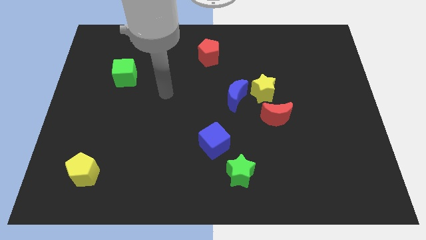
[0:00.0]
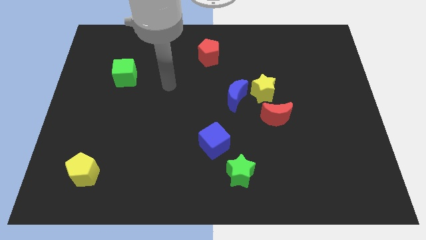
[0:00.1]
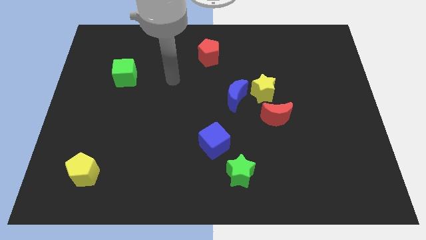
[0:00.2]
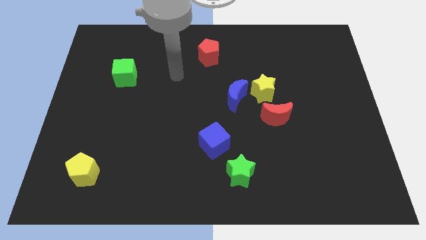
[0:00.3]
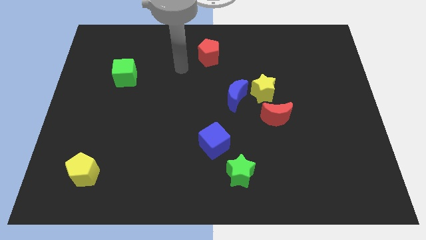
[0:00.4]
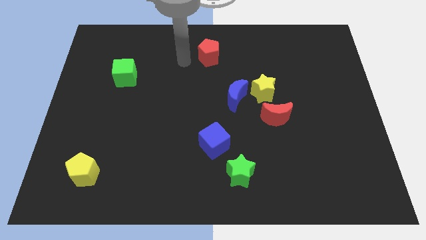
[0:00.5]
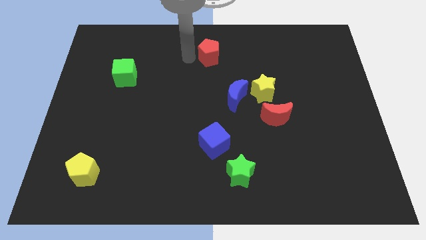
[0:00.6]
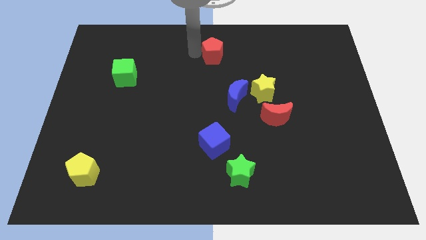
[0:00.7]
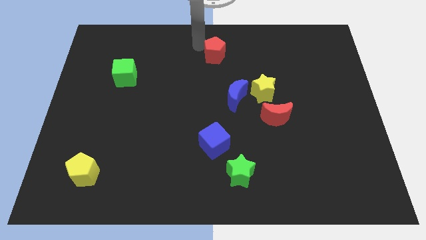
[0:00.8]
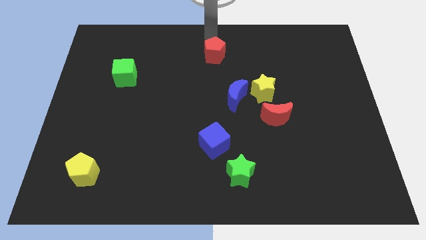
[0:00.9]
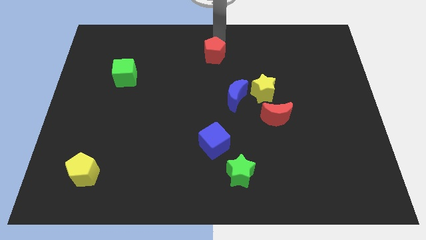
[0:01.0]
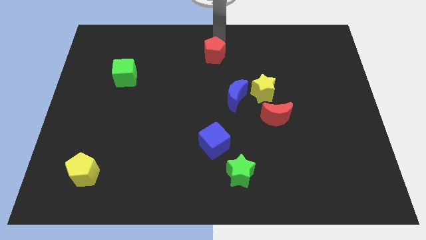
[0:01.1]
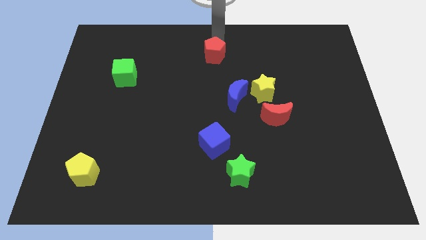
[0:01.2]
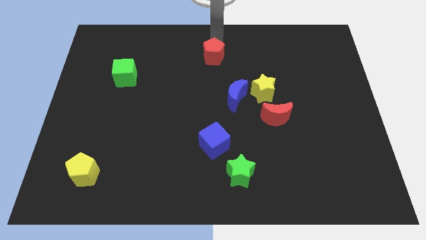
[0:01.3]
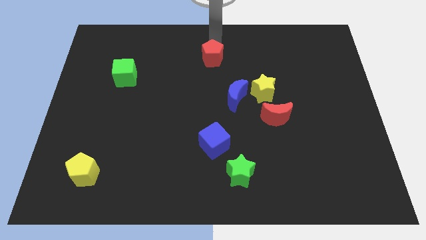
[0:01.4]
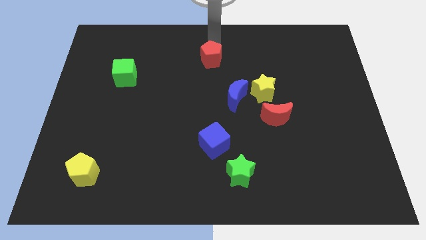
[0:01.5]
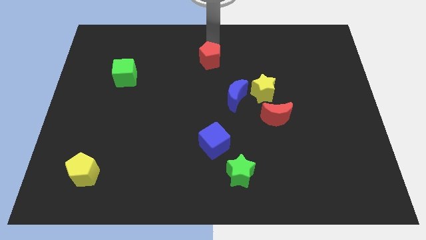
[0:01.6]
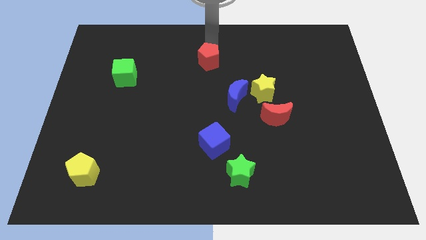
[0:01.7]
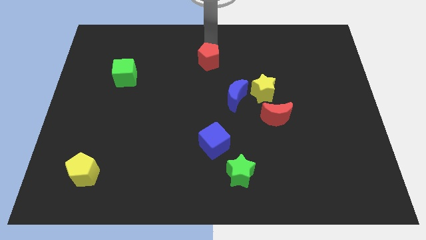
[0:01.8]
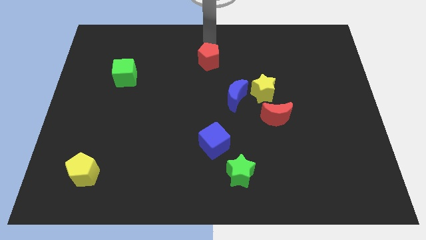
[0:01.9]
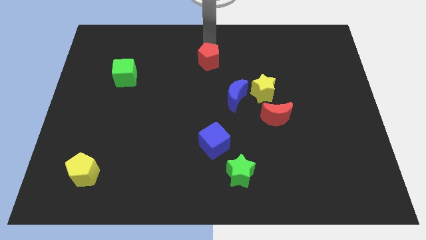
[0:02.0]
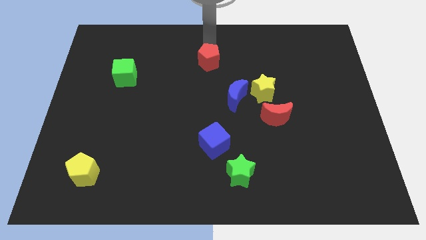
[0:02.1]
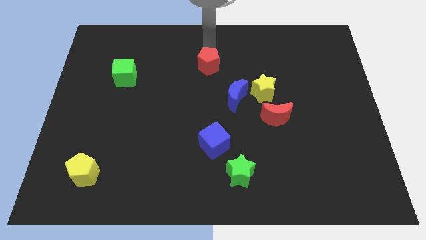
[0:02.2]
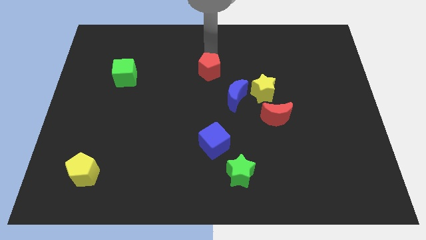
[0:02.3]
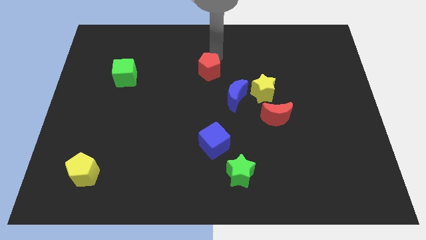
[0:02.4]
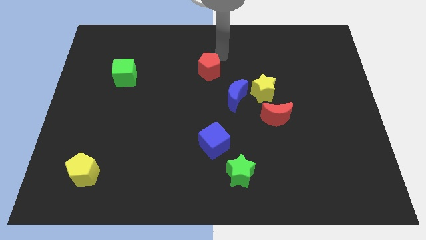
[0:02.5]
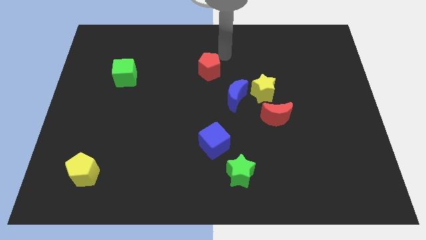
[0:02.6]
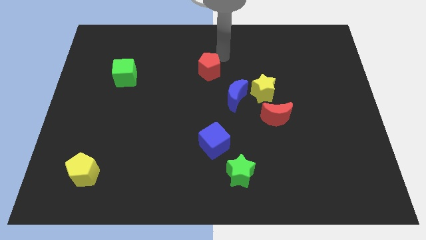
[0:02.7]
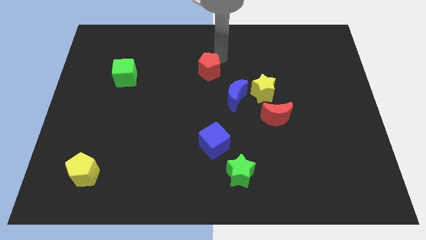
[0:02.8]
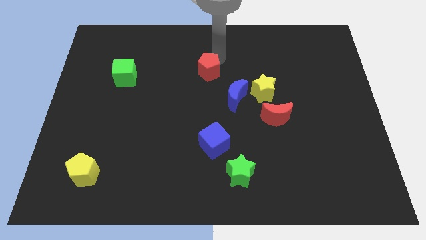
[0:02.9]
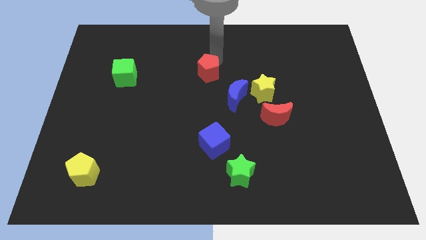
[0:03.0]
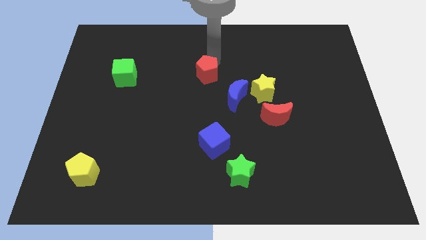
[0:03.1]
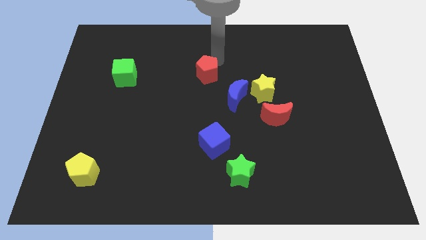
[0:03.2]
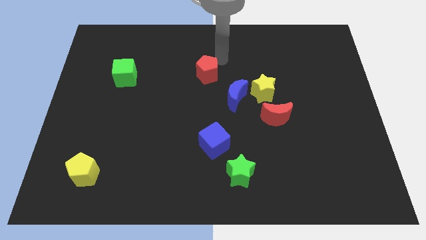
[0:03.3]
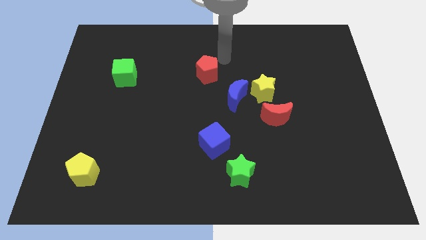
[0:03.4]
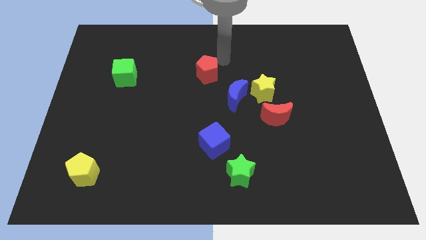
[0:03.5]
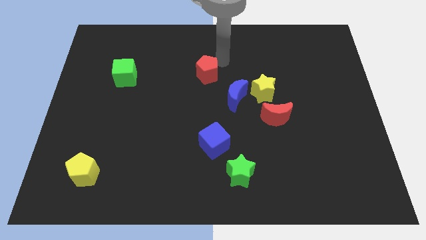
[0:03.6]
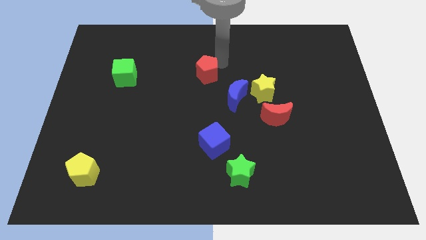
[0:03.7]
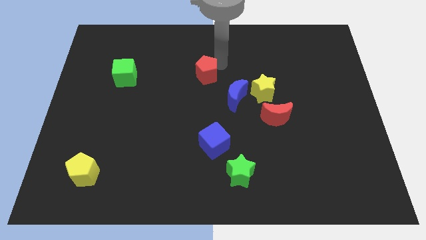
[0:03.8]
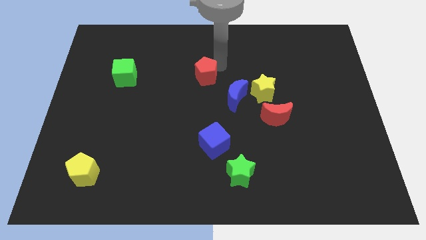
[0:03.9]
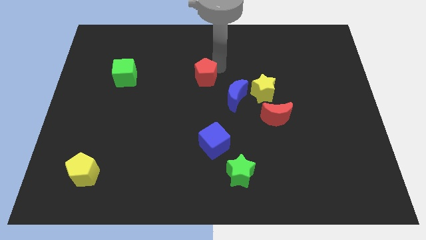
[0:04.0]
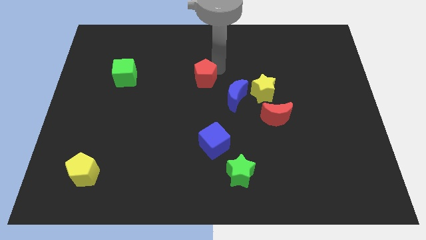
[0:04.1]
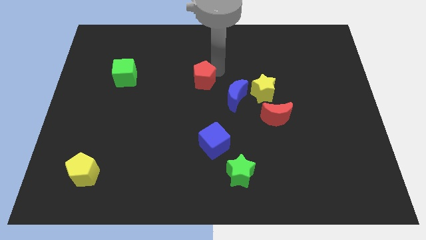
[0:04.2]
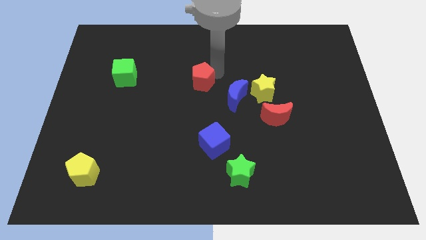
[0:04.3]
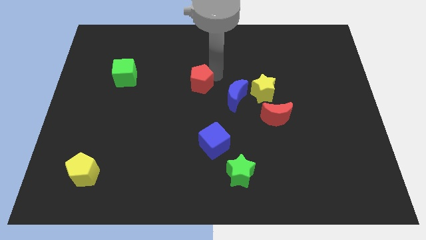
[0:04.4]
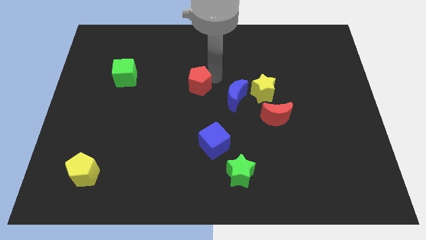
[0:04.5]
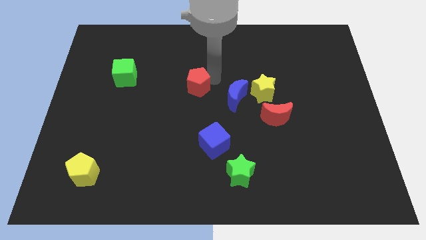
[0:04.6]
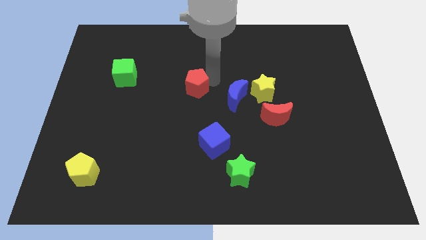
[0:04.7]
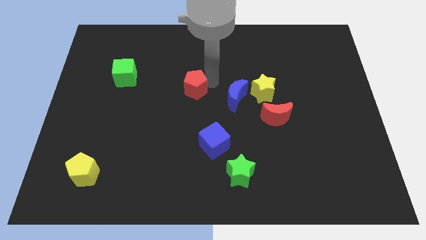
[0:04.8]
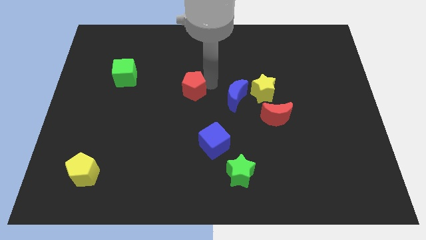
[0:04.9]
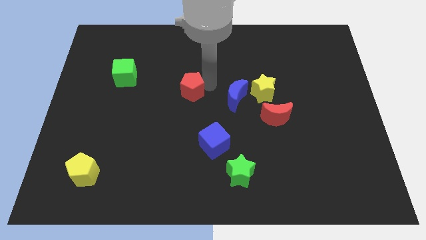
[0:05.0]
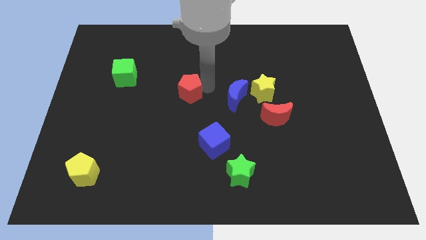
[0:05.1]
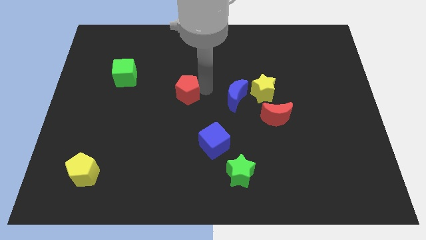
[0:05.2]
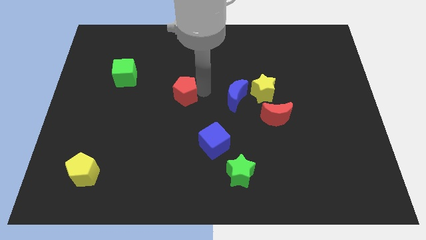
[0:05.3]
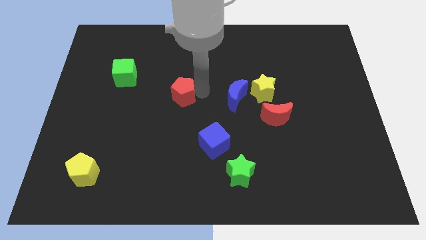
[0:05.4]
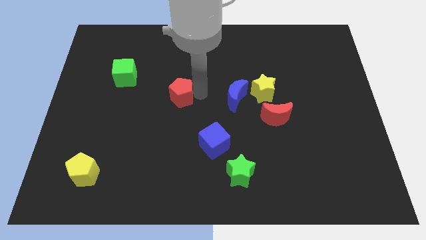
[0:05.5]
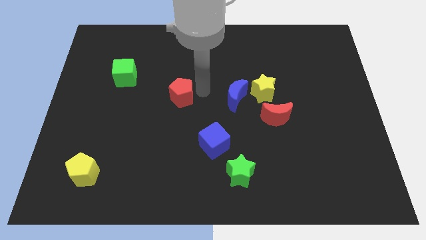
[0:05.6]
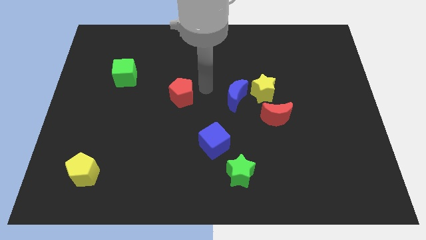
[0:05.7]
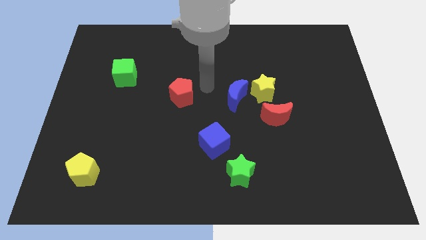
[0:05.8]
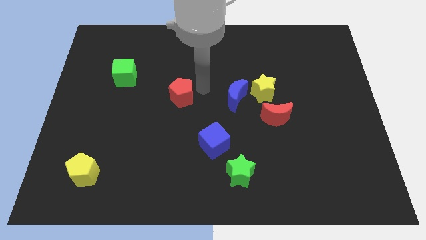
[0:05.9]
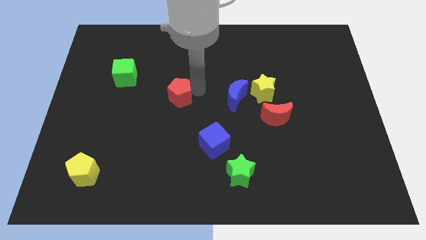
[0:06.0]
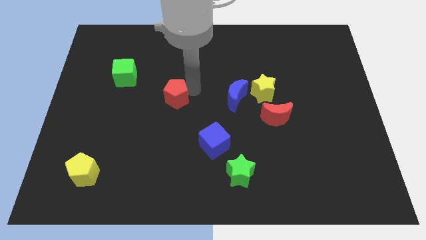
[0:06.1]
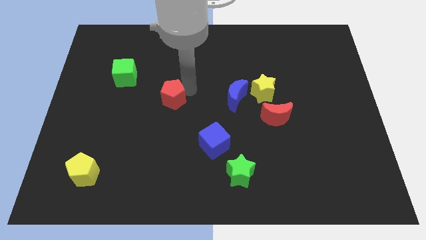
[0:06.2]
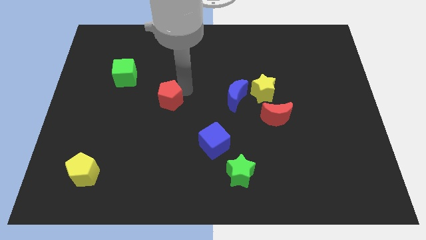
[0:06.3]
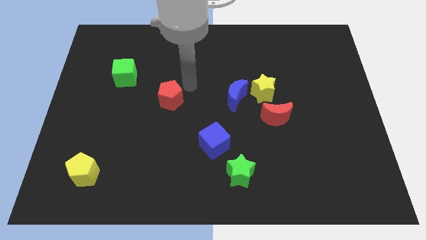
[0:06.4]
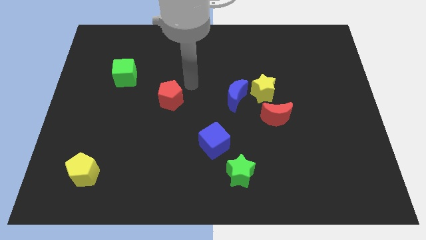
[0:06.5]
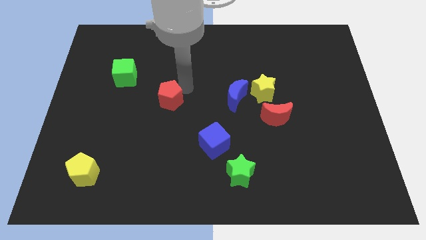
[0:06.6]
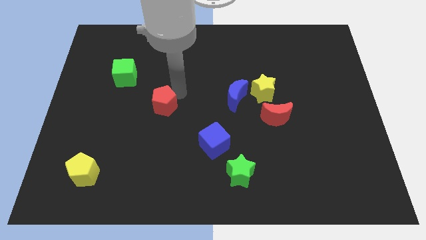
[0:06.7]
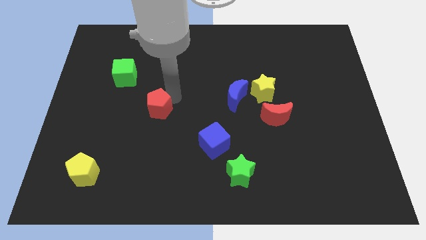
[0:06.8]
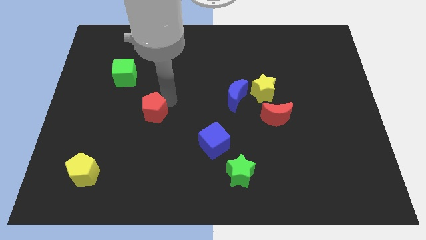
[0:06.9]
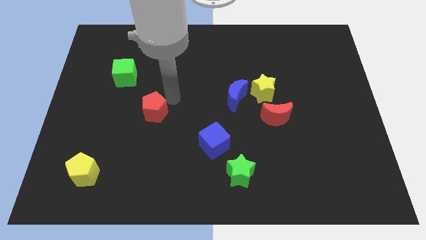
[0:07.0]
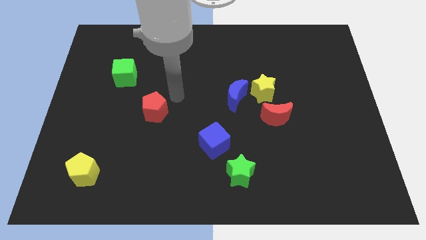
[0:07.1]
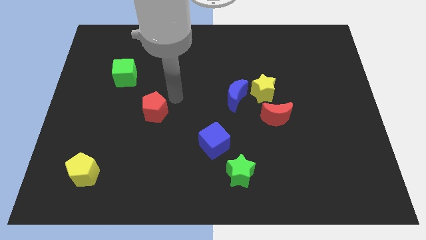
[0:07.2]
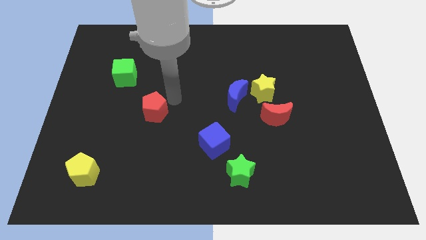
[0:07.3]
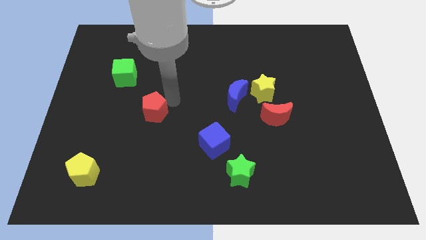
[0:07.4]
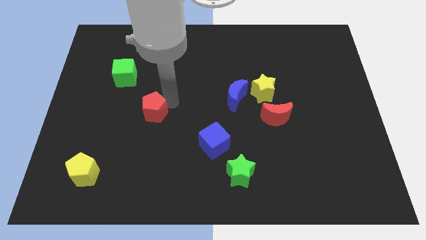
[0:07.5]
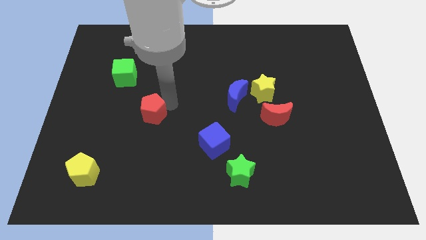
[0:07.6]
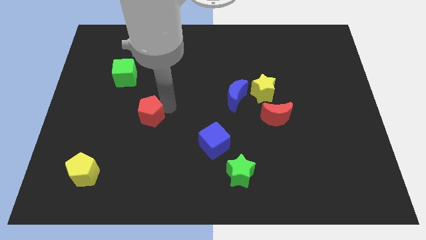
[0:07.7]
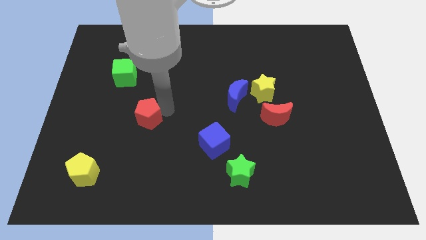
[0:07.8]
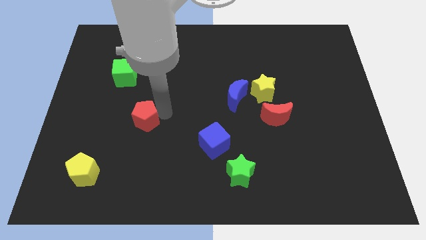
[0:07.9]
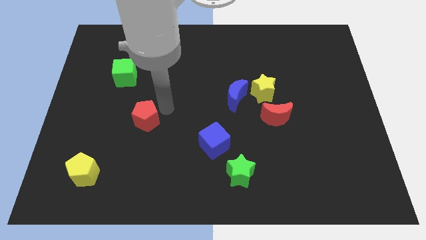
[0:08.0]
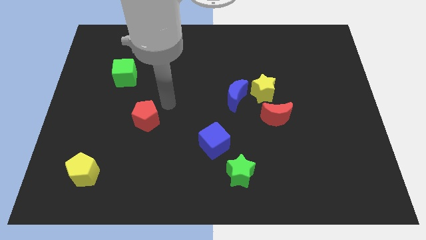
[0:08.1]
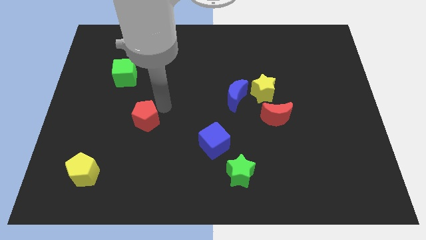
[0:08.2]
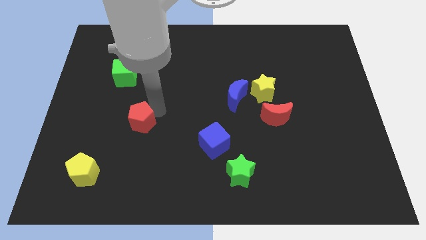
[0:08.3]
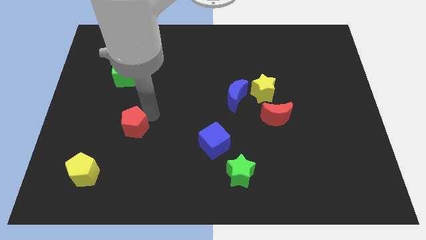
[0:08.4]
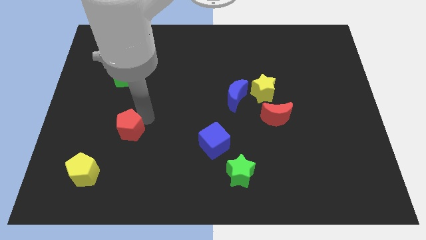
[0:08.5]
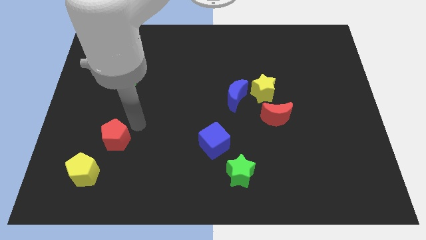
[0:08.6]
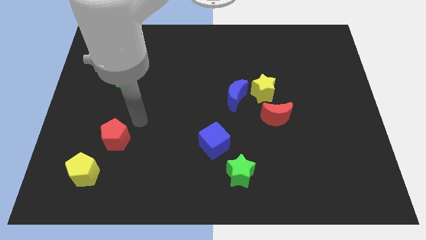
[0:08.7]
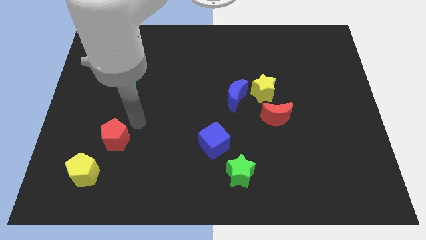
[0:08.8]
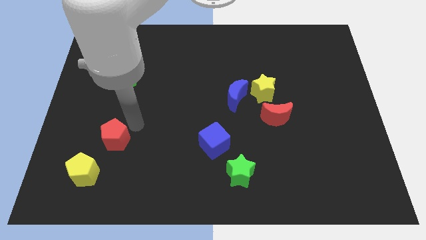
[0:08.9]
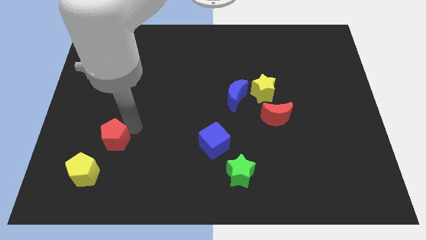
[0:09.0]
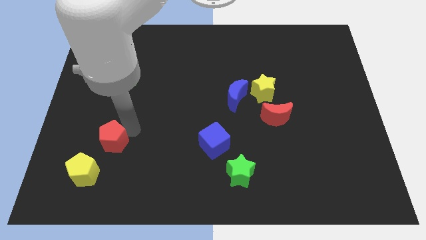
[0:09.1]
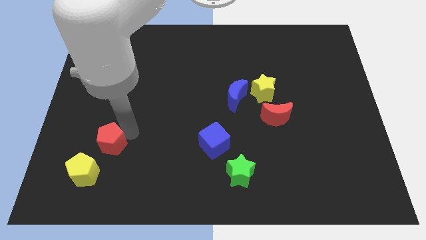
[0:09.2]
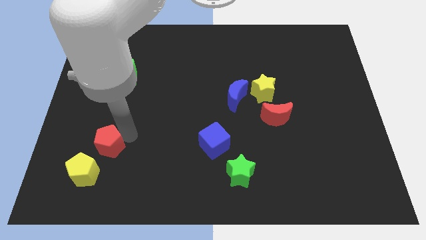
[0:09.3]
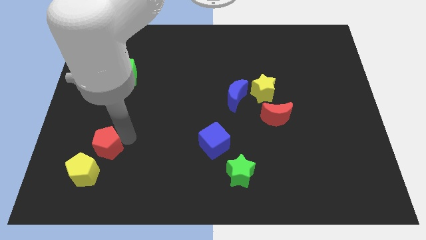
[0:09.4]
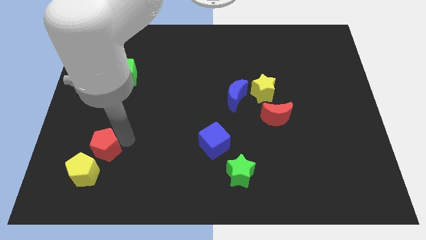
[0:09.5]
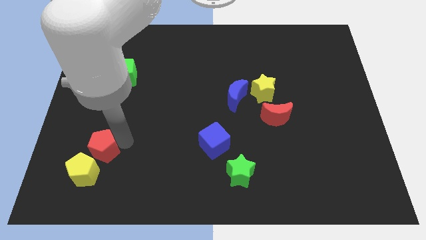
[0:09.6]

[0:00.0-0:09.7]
push the red pentagon to the yellow pentagon
